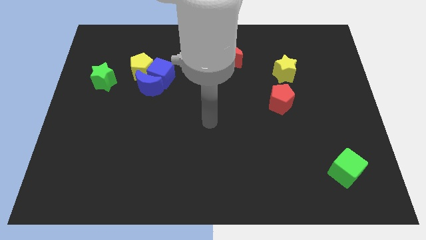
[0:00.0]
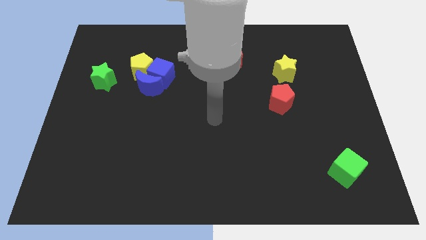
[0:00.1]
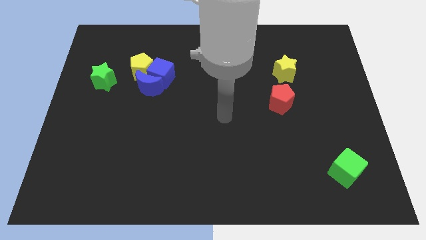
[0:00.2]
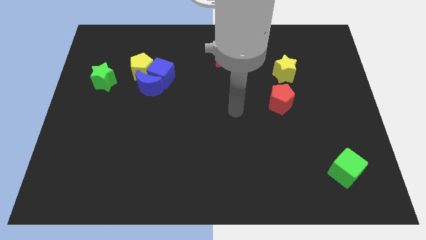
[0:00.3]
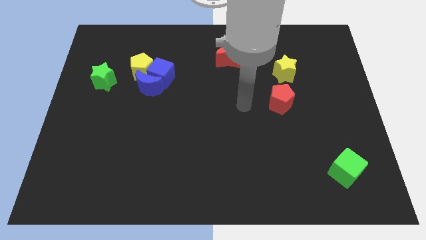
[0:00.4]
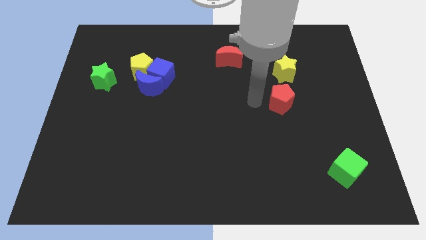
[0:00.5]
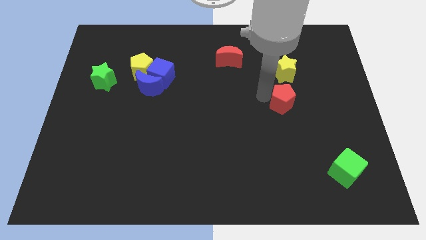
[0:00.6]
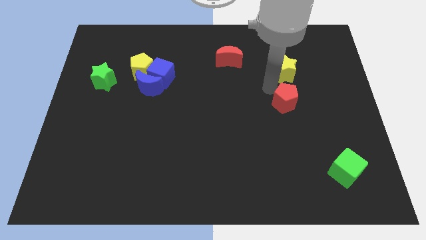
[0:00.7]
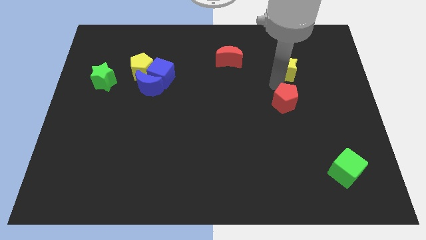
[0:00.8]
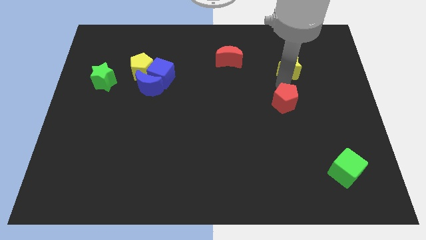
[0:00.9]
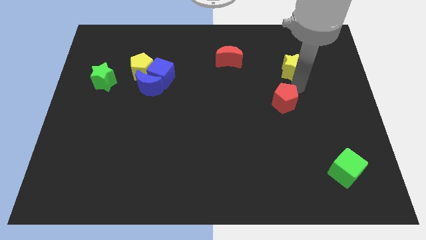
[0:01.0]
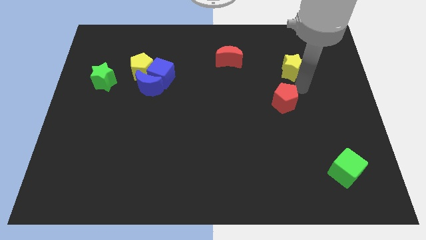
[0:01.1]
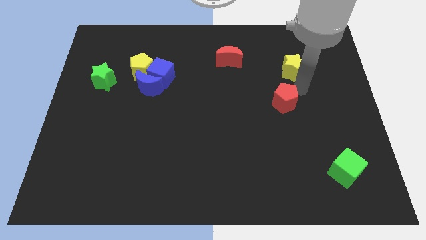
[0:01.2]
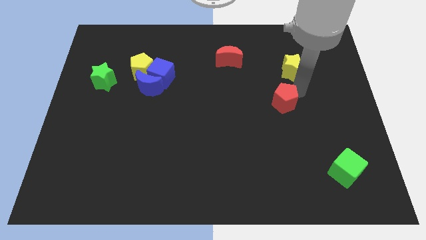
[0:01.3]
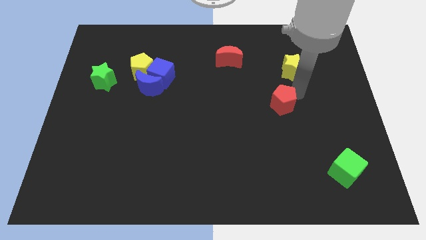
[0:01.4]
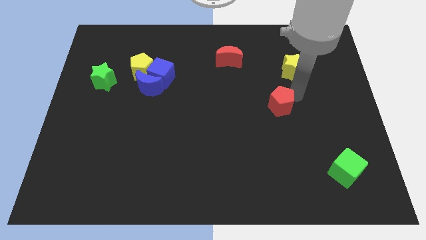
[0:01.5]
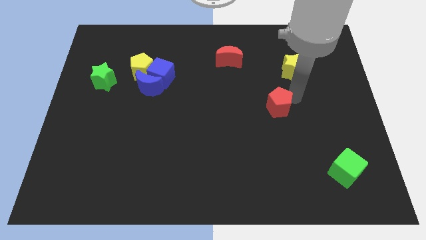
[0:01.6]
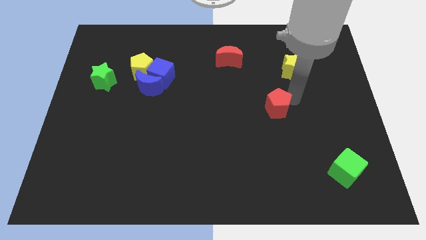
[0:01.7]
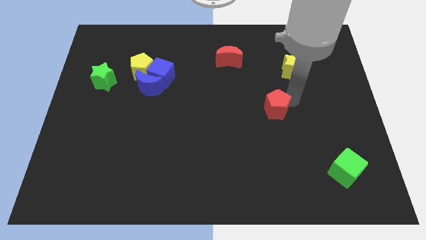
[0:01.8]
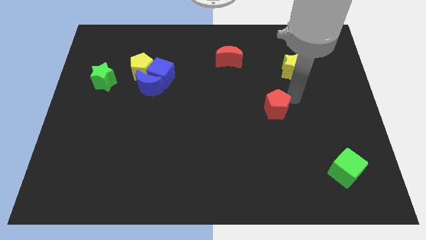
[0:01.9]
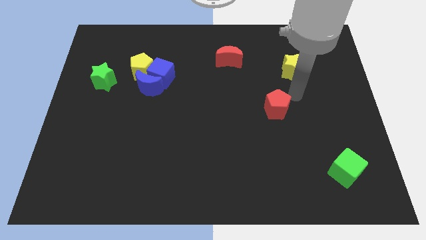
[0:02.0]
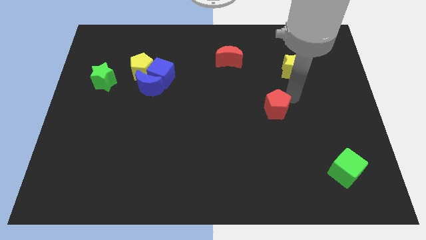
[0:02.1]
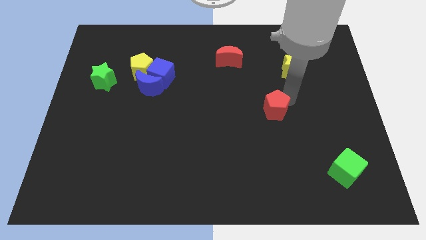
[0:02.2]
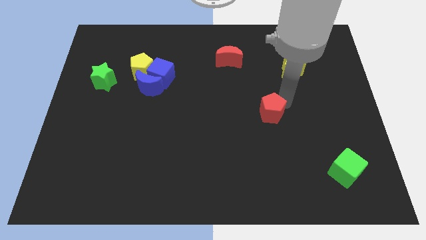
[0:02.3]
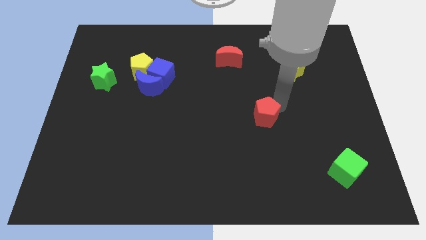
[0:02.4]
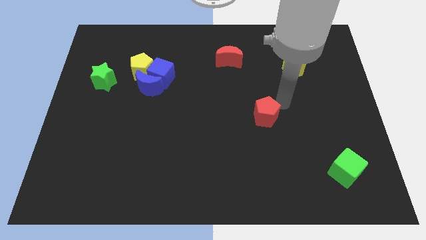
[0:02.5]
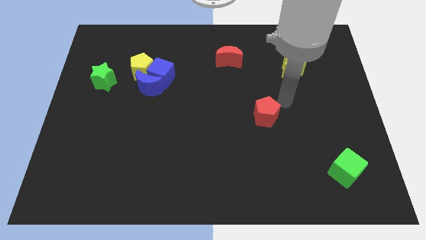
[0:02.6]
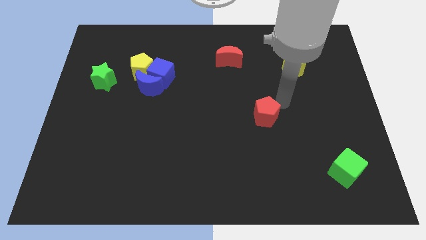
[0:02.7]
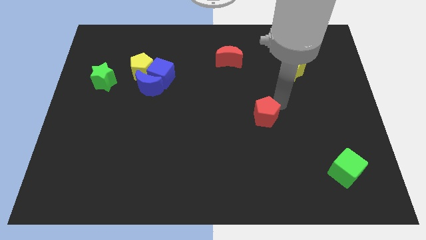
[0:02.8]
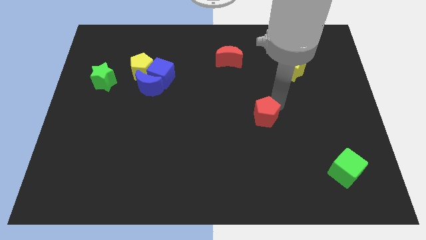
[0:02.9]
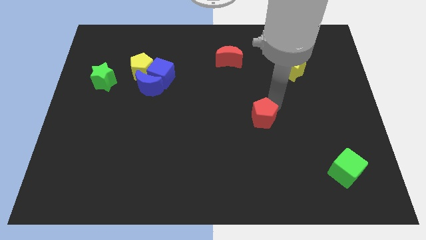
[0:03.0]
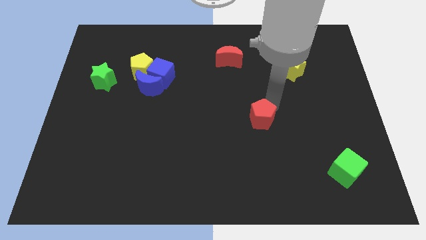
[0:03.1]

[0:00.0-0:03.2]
slide the red pentagon slightly down and then to the left

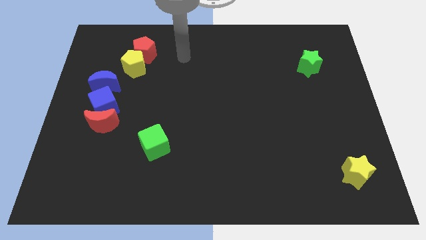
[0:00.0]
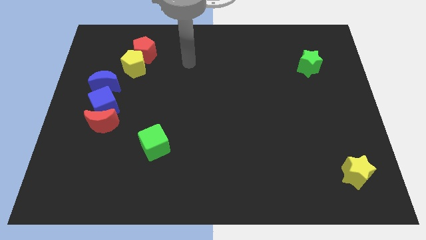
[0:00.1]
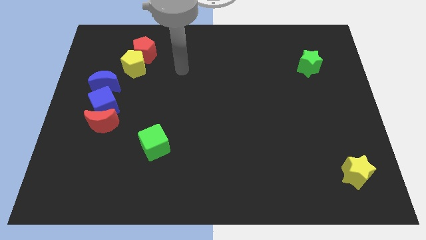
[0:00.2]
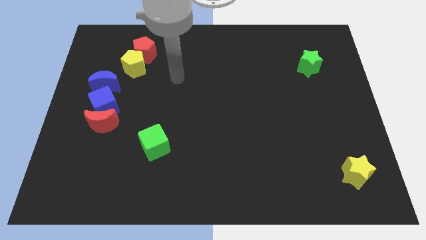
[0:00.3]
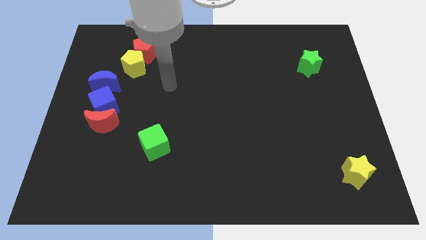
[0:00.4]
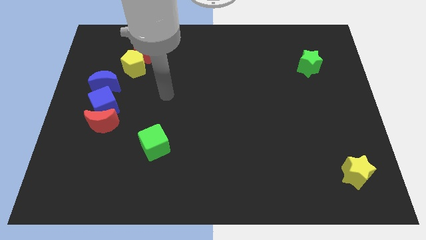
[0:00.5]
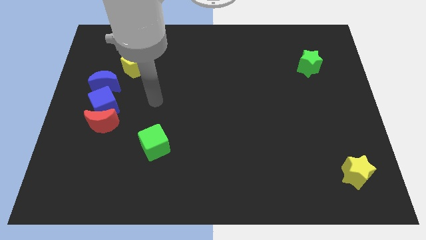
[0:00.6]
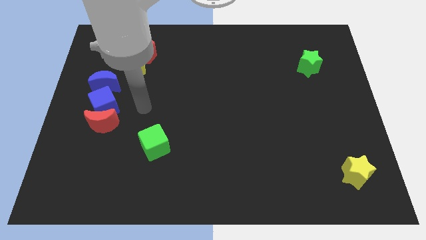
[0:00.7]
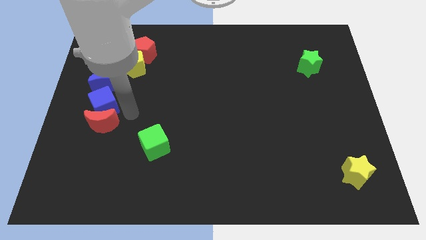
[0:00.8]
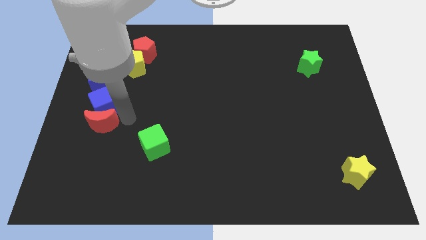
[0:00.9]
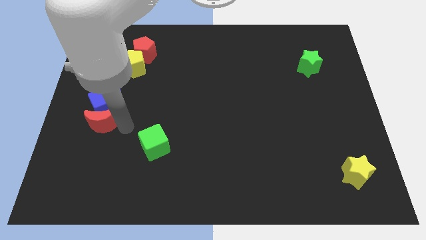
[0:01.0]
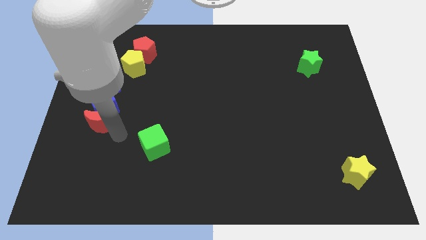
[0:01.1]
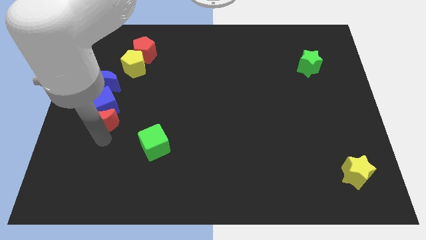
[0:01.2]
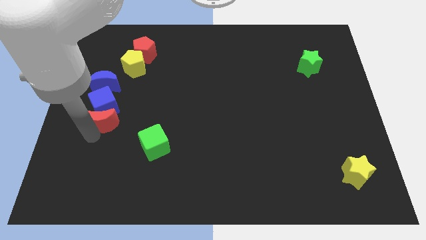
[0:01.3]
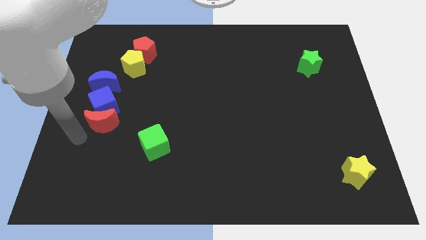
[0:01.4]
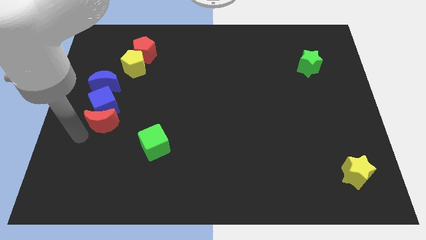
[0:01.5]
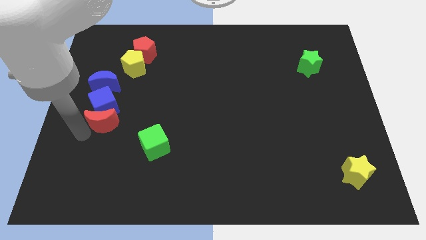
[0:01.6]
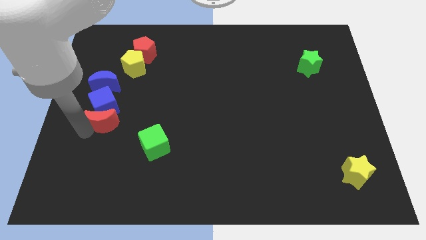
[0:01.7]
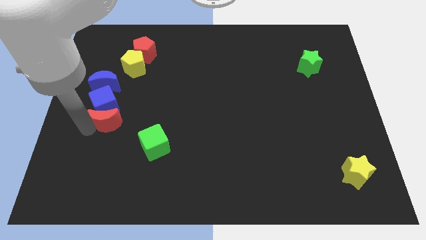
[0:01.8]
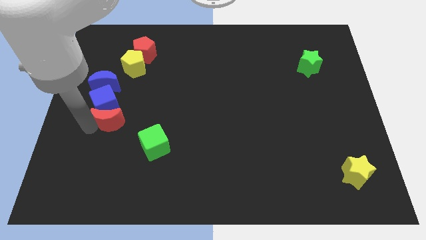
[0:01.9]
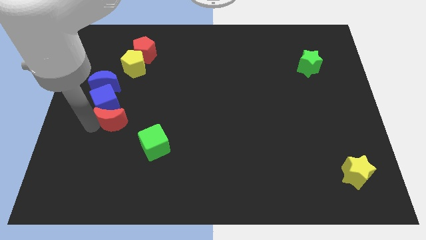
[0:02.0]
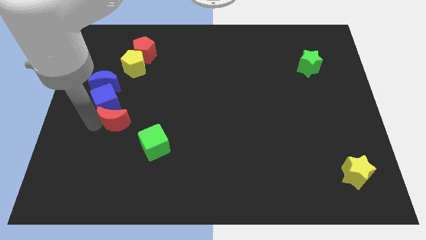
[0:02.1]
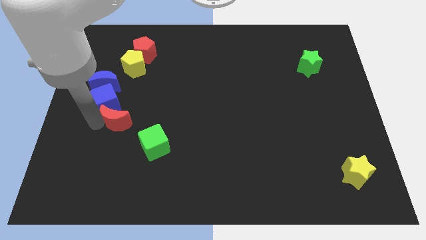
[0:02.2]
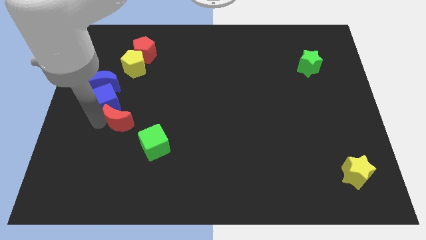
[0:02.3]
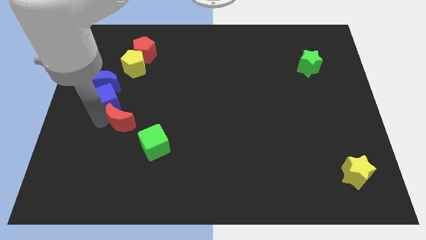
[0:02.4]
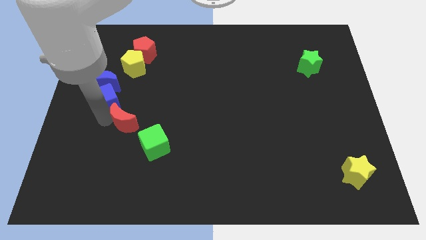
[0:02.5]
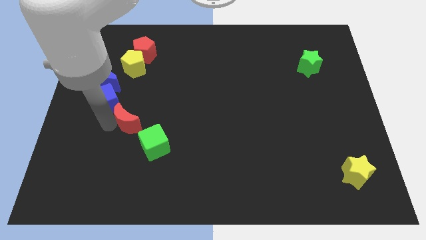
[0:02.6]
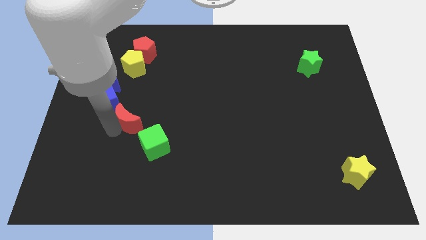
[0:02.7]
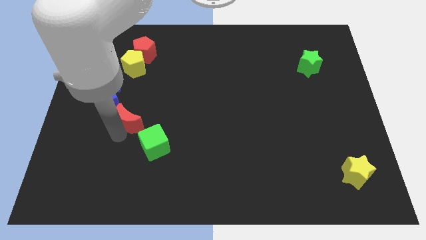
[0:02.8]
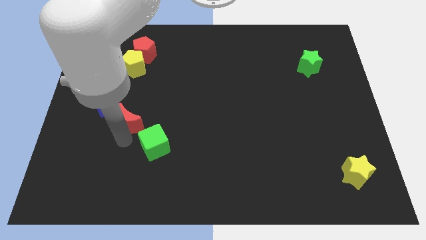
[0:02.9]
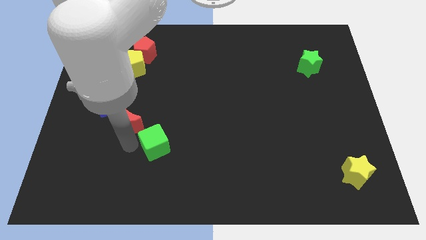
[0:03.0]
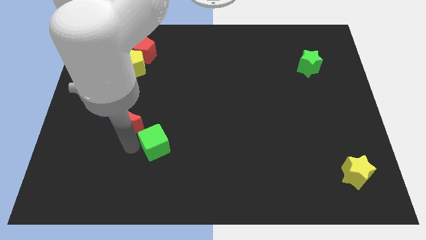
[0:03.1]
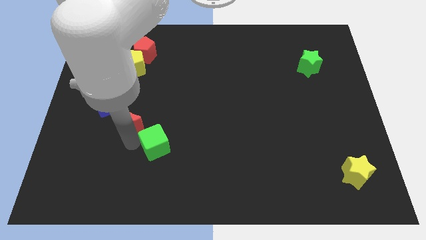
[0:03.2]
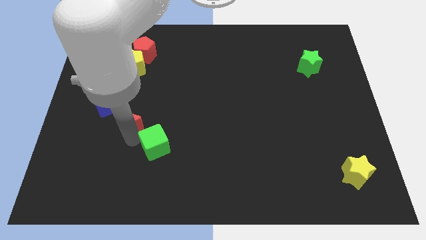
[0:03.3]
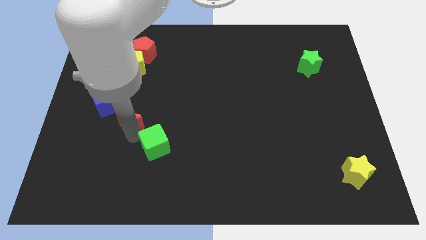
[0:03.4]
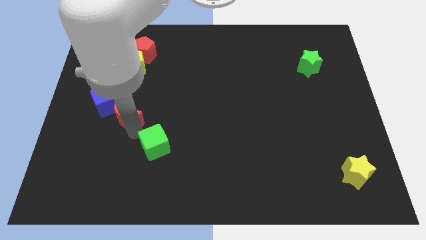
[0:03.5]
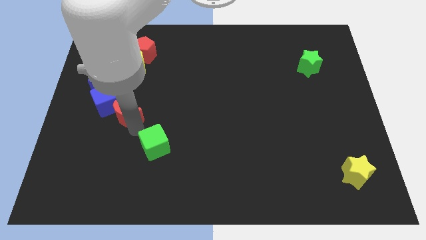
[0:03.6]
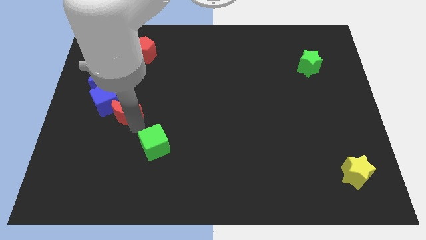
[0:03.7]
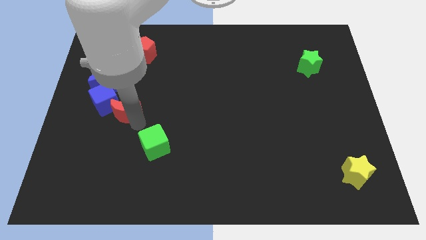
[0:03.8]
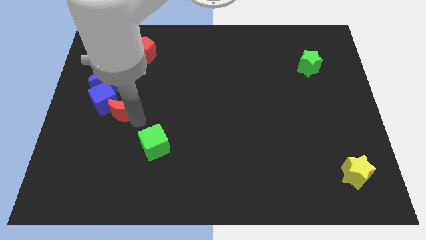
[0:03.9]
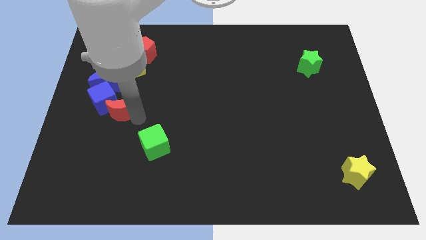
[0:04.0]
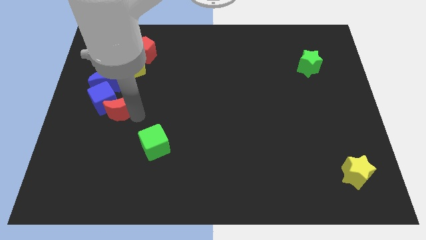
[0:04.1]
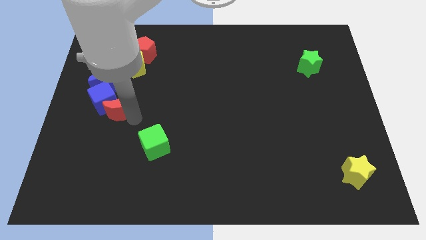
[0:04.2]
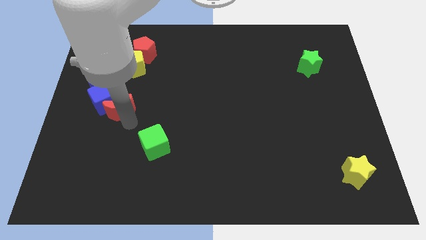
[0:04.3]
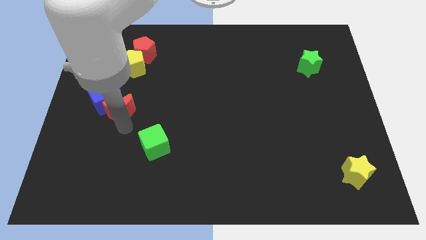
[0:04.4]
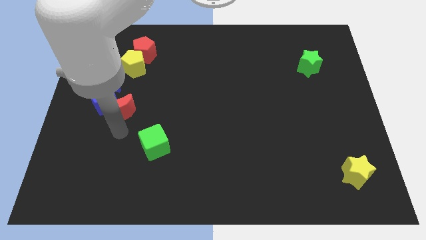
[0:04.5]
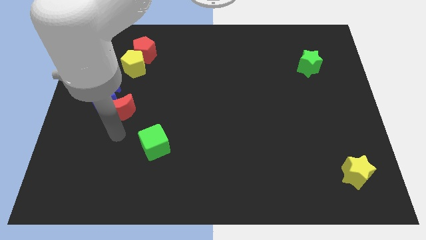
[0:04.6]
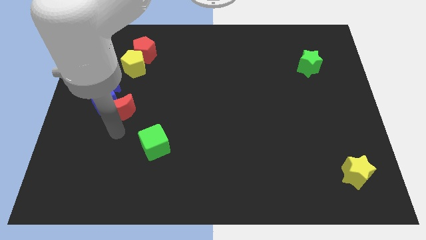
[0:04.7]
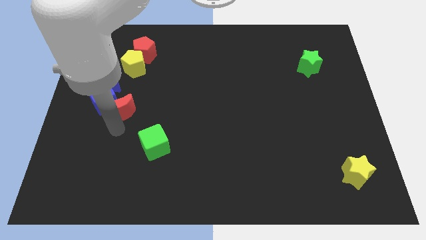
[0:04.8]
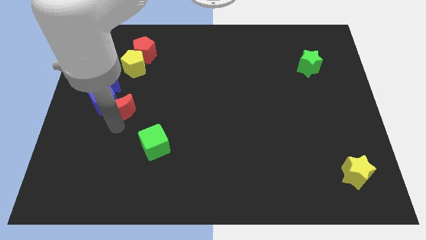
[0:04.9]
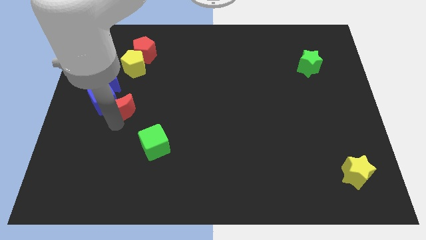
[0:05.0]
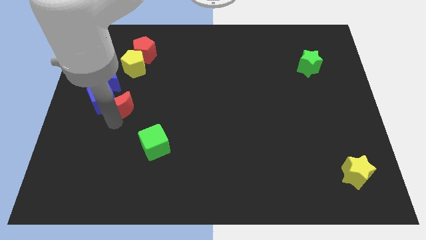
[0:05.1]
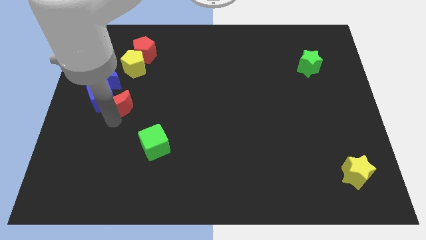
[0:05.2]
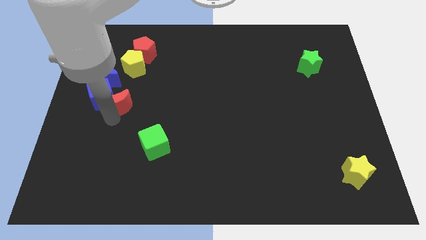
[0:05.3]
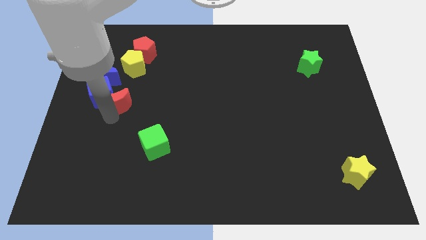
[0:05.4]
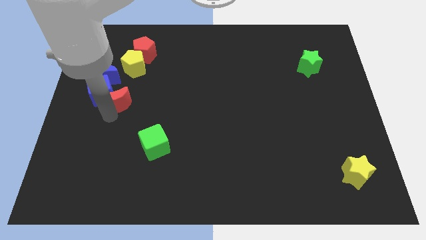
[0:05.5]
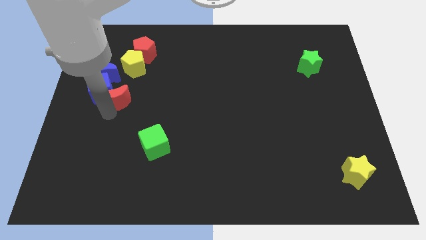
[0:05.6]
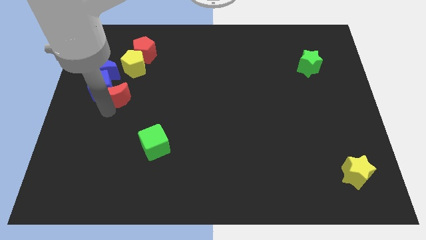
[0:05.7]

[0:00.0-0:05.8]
slightly move the red moon upwards
